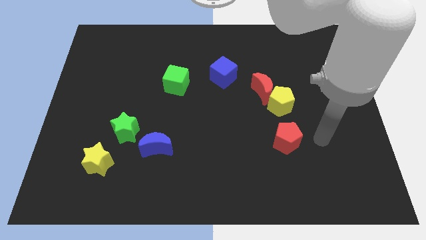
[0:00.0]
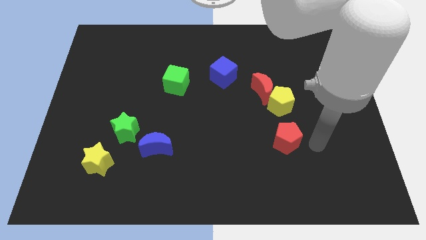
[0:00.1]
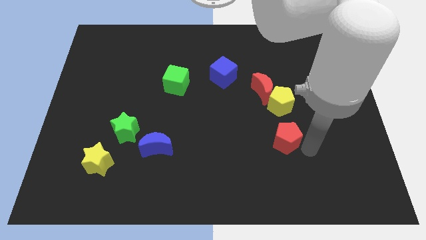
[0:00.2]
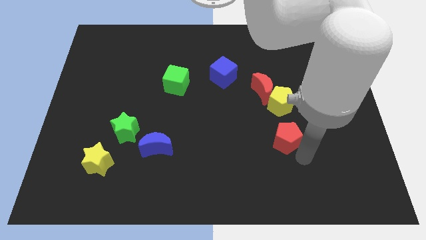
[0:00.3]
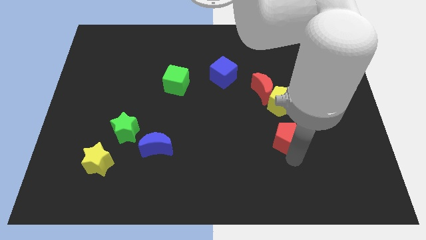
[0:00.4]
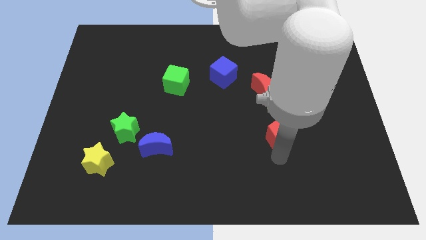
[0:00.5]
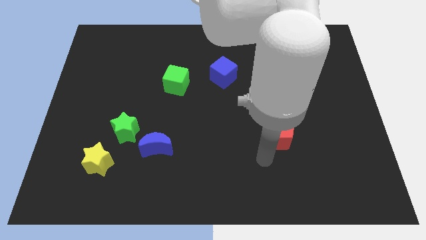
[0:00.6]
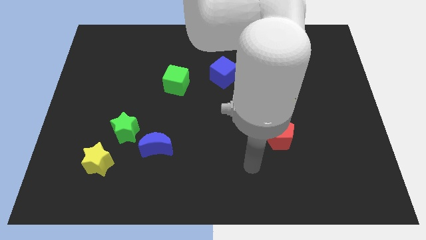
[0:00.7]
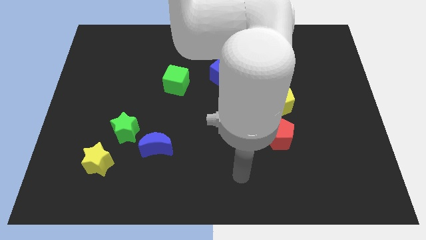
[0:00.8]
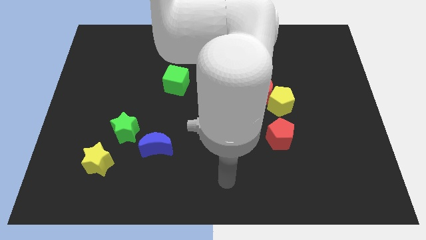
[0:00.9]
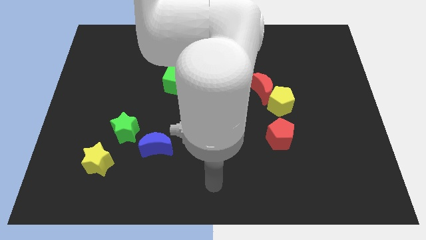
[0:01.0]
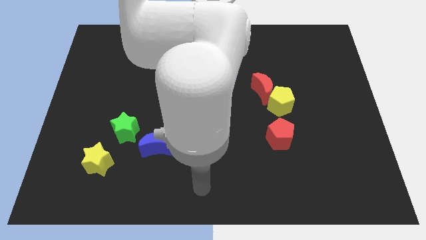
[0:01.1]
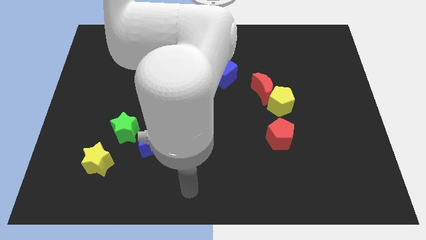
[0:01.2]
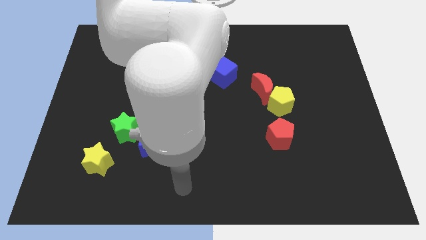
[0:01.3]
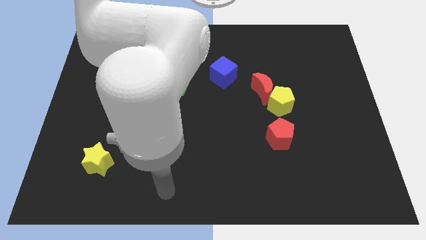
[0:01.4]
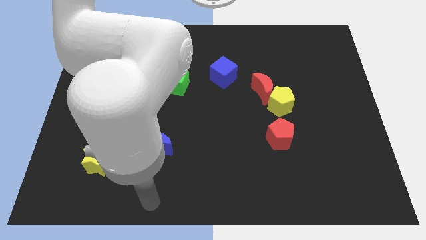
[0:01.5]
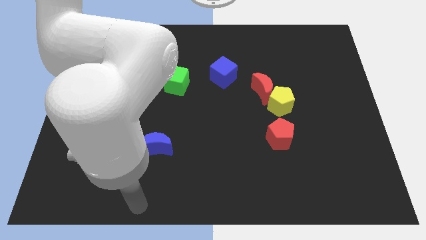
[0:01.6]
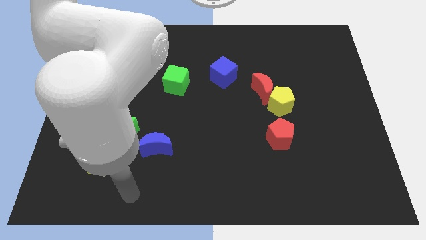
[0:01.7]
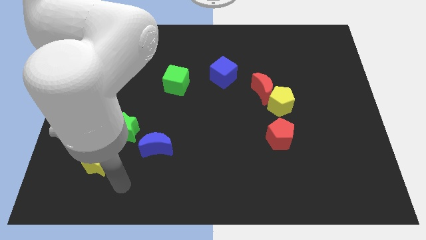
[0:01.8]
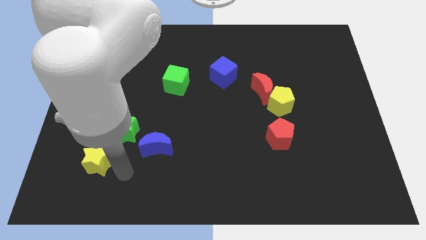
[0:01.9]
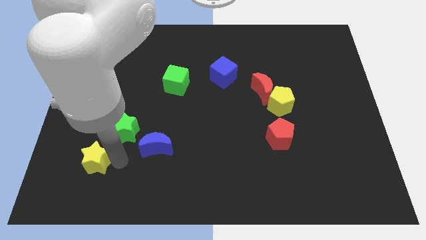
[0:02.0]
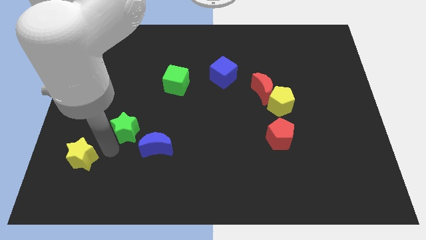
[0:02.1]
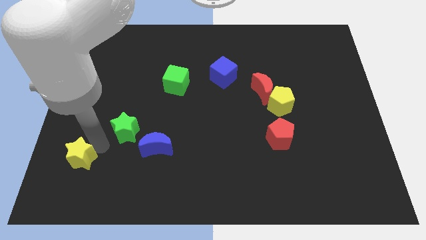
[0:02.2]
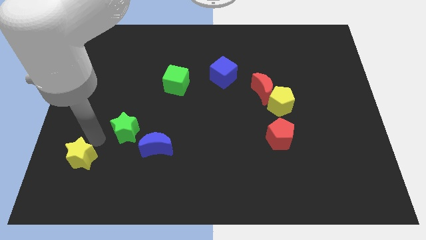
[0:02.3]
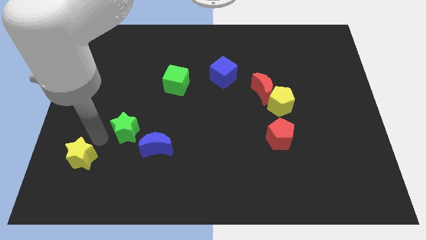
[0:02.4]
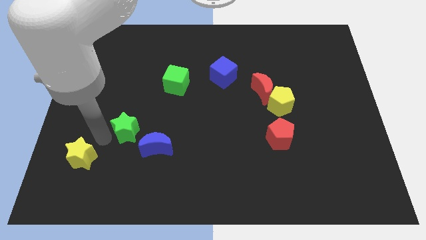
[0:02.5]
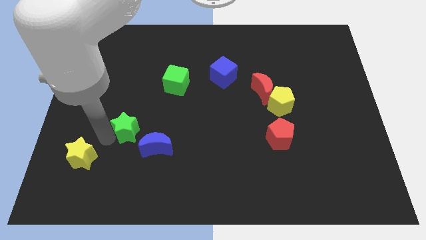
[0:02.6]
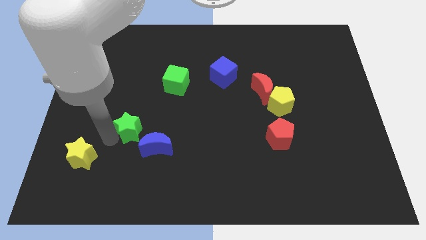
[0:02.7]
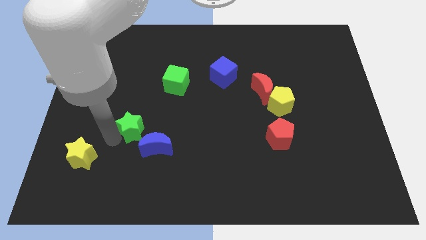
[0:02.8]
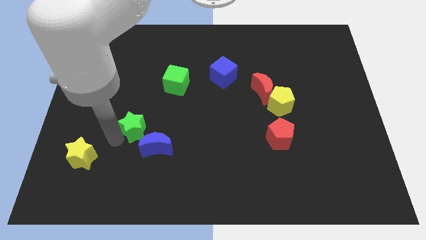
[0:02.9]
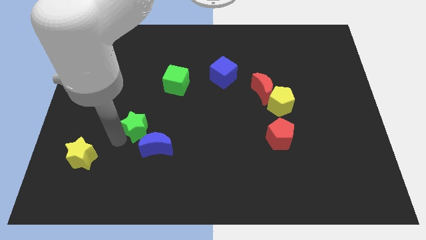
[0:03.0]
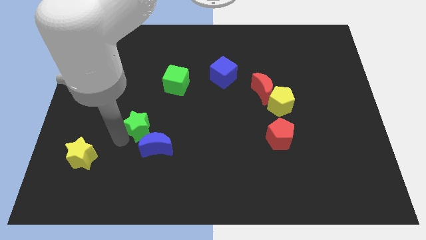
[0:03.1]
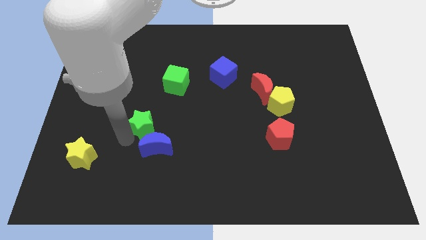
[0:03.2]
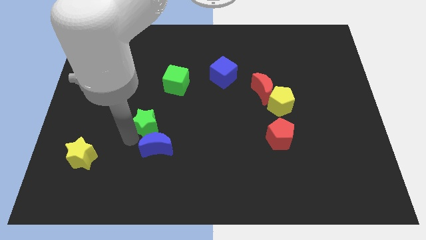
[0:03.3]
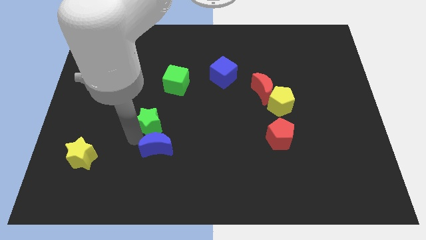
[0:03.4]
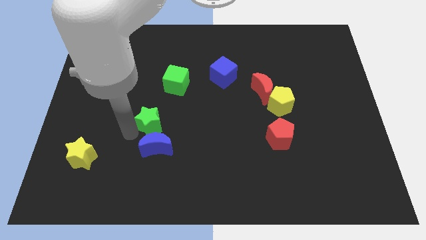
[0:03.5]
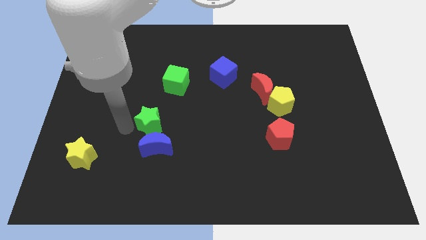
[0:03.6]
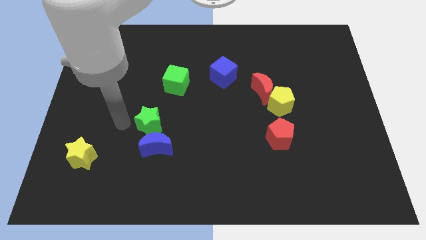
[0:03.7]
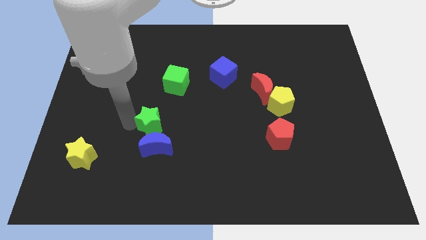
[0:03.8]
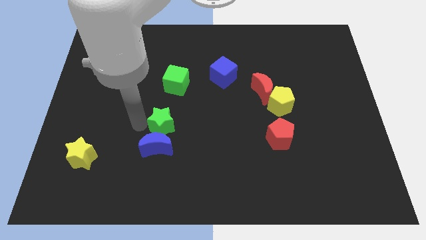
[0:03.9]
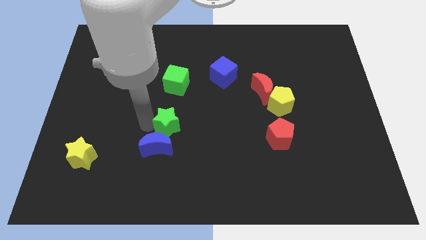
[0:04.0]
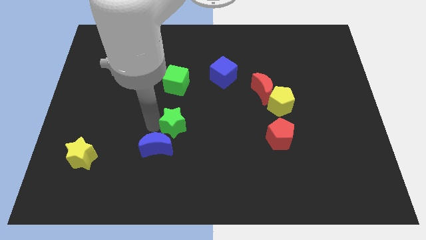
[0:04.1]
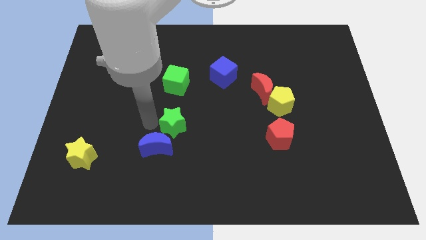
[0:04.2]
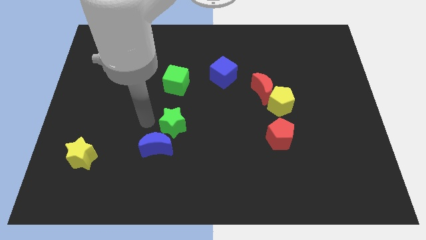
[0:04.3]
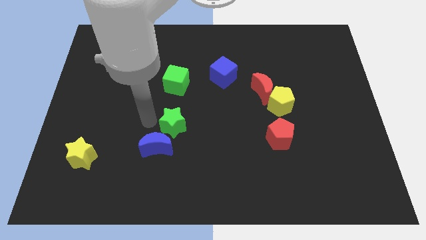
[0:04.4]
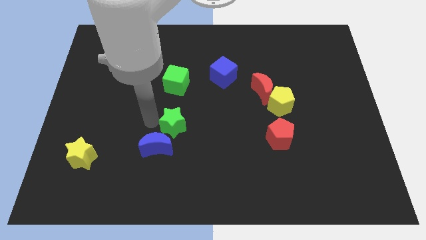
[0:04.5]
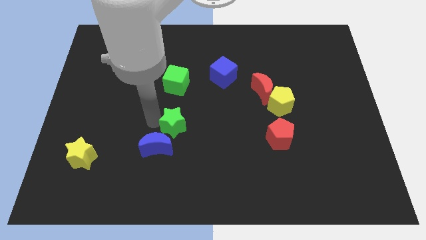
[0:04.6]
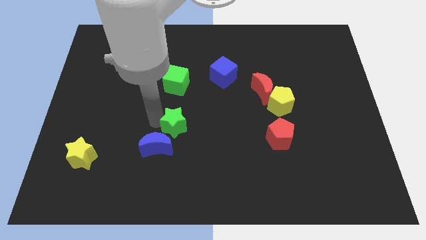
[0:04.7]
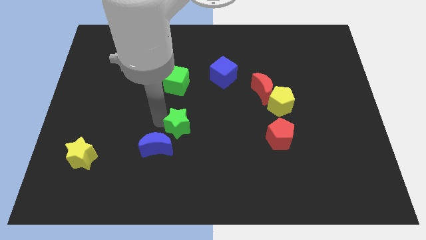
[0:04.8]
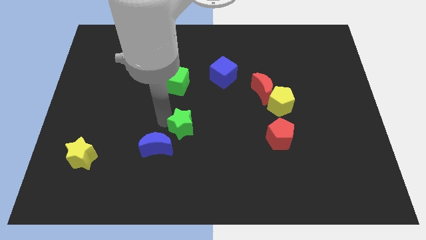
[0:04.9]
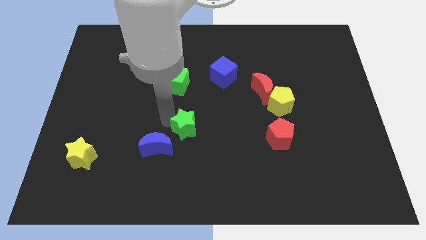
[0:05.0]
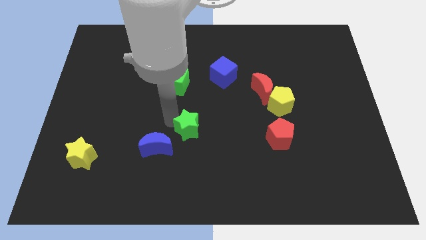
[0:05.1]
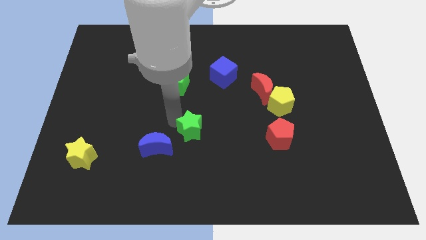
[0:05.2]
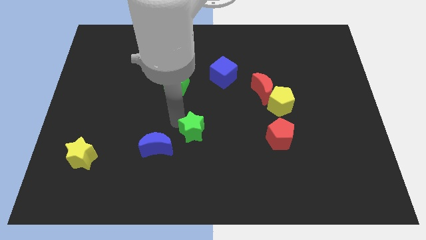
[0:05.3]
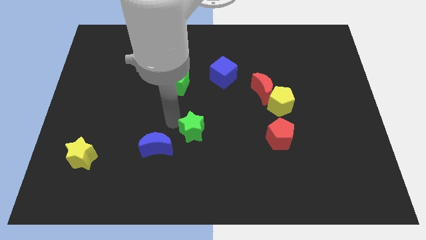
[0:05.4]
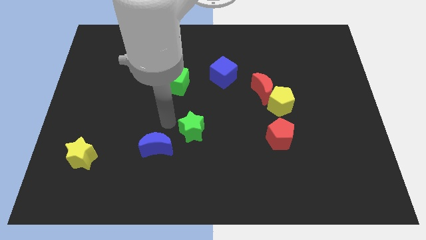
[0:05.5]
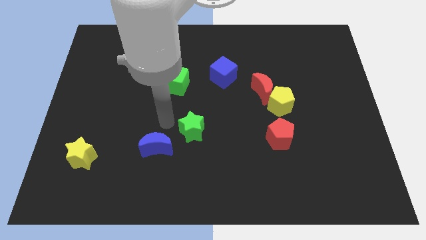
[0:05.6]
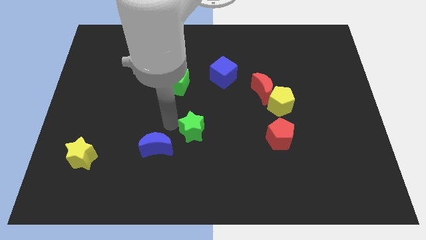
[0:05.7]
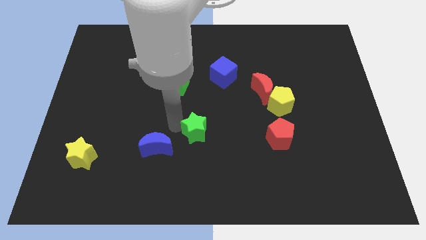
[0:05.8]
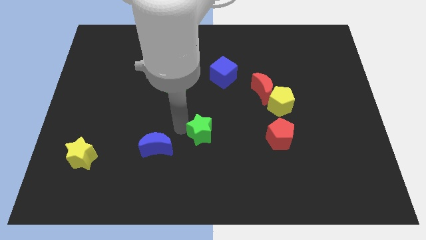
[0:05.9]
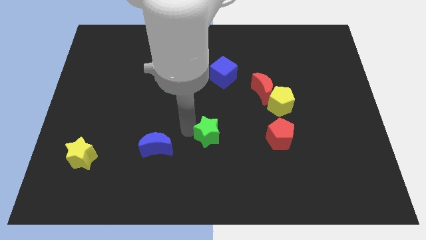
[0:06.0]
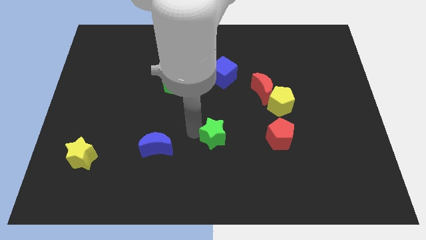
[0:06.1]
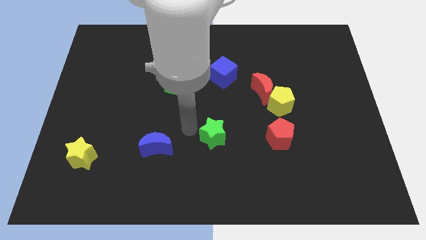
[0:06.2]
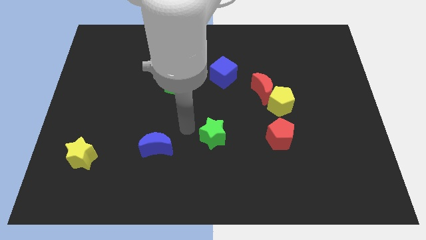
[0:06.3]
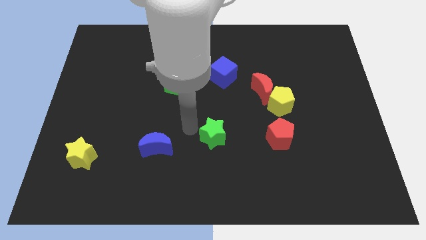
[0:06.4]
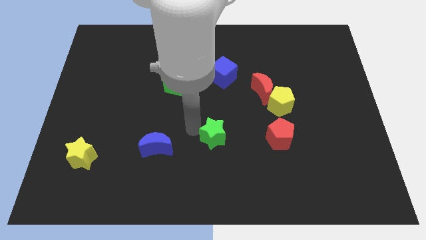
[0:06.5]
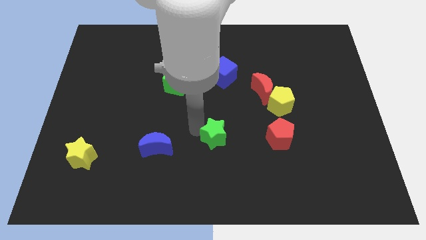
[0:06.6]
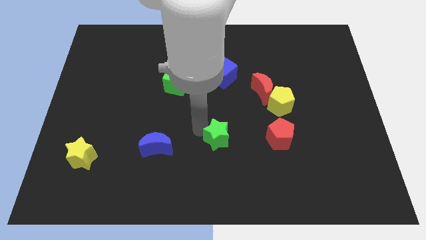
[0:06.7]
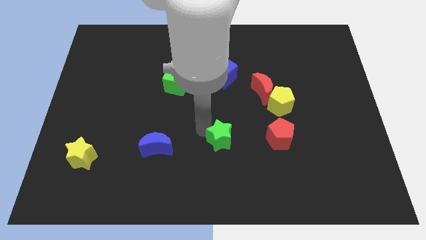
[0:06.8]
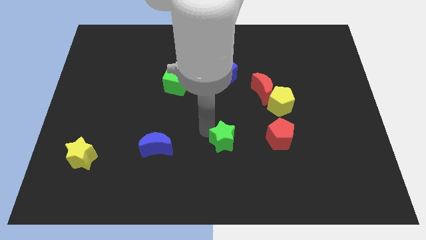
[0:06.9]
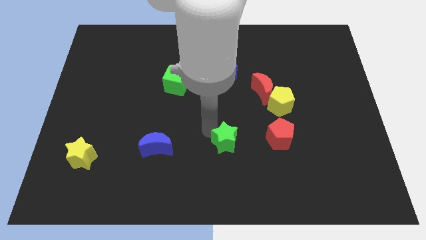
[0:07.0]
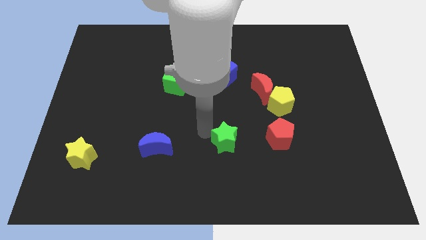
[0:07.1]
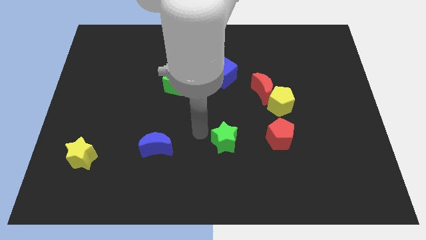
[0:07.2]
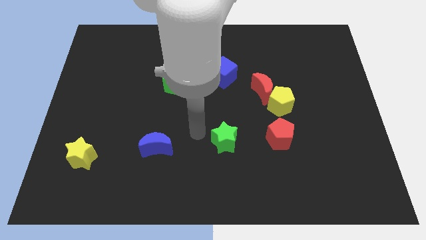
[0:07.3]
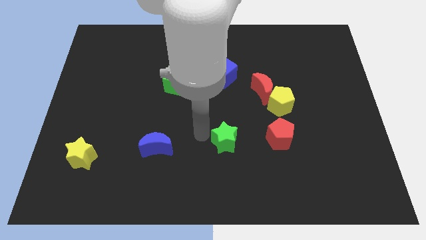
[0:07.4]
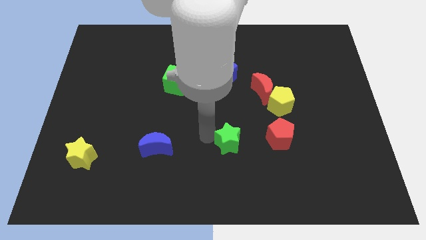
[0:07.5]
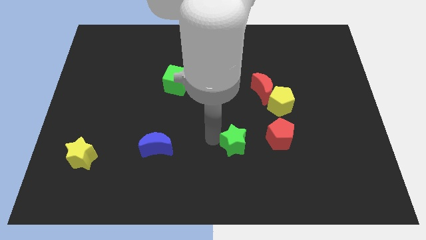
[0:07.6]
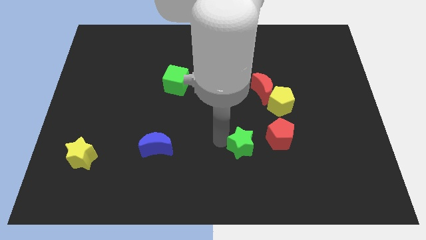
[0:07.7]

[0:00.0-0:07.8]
put the green star diagonally down and to the left of the red pentagon

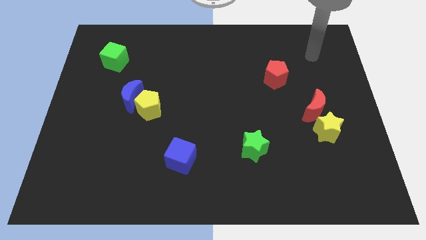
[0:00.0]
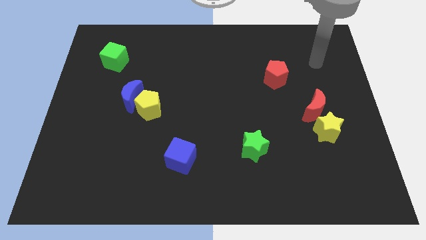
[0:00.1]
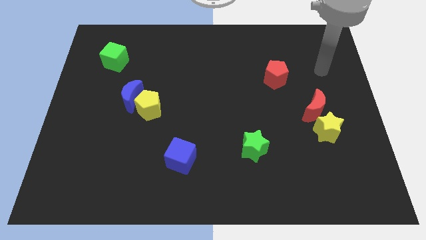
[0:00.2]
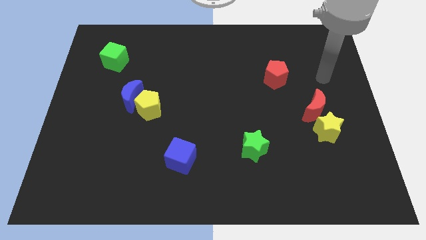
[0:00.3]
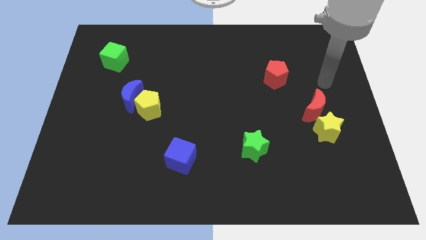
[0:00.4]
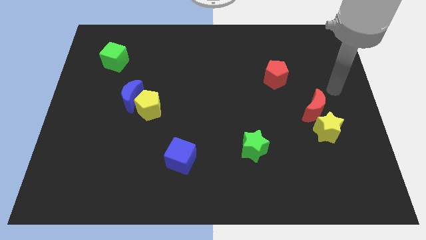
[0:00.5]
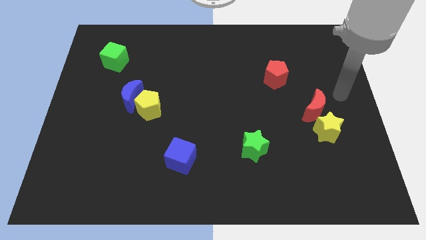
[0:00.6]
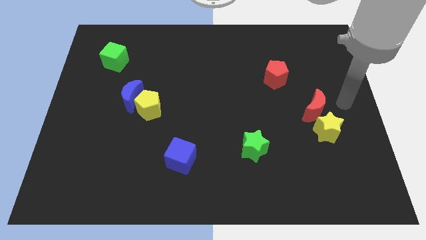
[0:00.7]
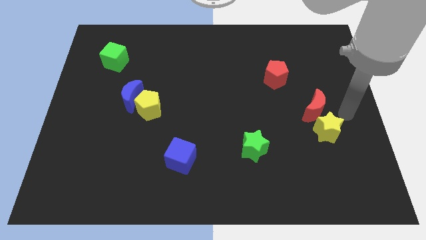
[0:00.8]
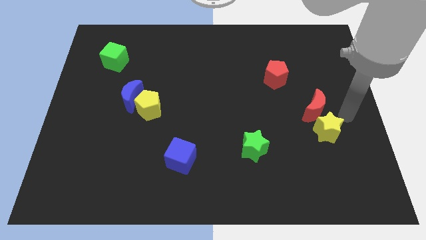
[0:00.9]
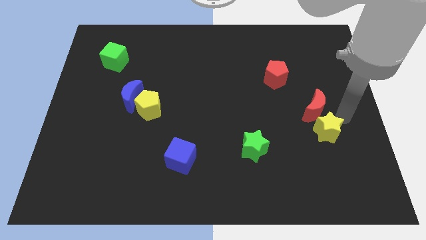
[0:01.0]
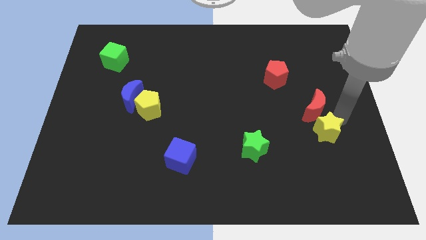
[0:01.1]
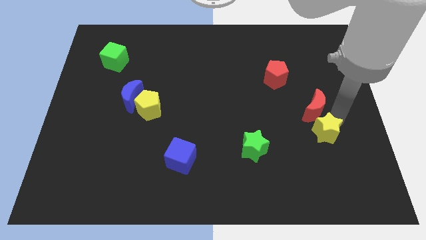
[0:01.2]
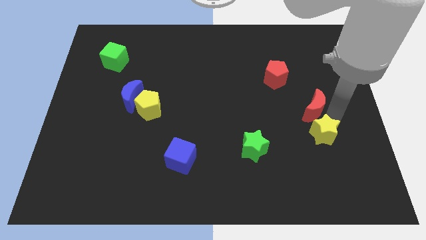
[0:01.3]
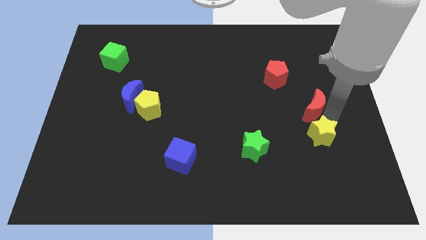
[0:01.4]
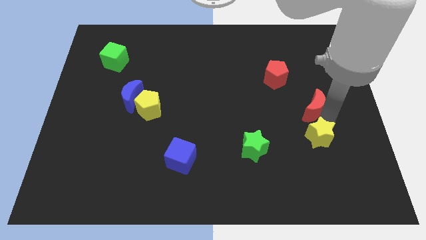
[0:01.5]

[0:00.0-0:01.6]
put the yellow star to the right side of the green star
